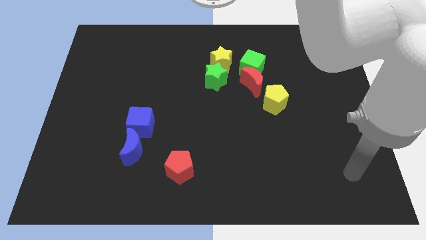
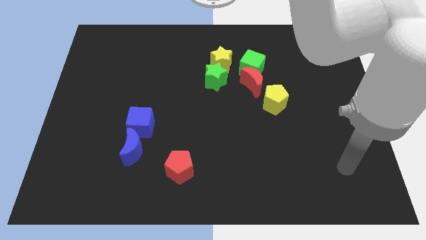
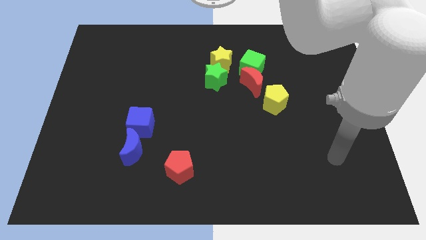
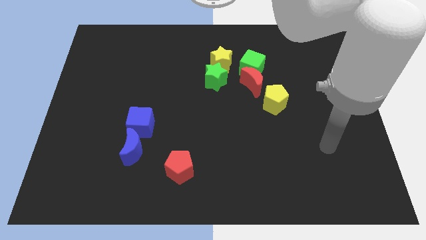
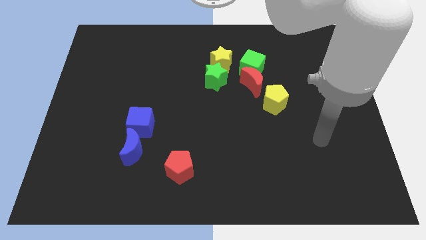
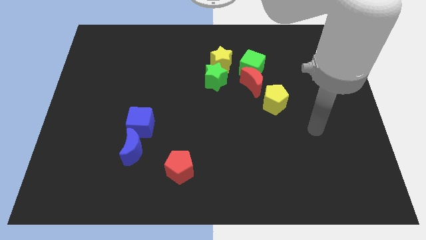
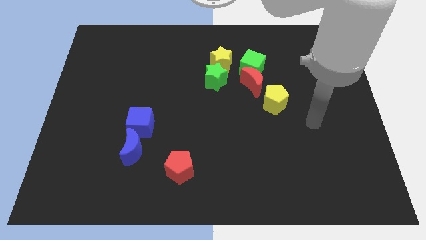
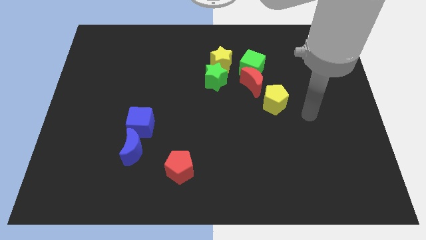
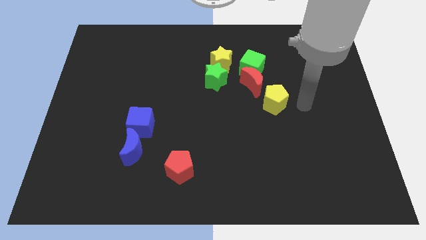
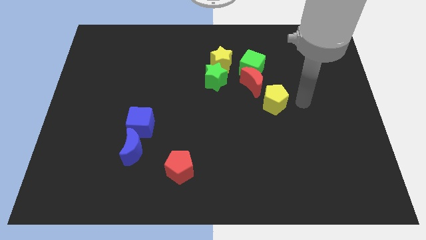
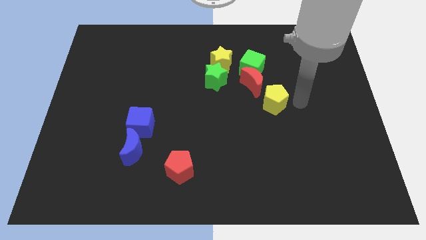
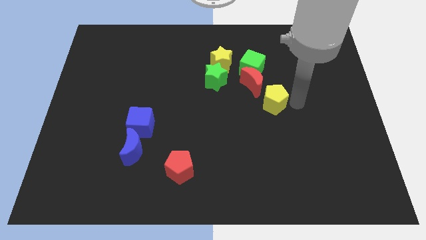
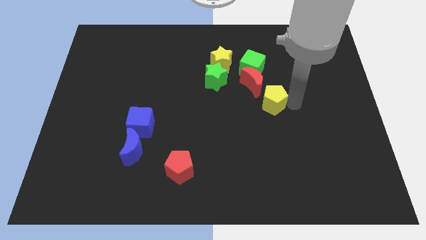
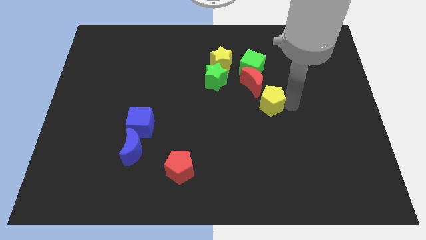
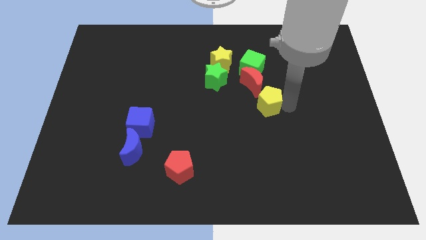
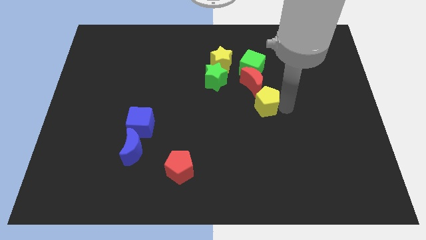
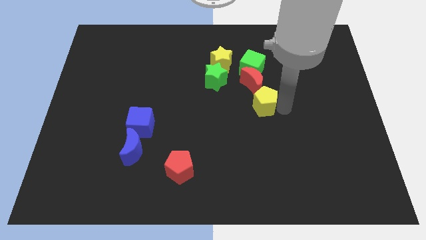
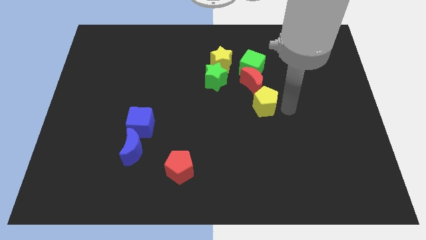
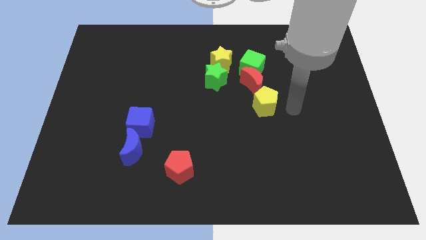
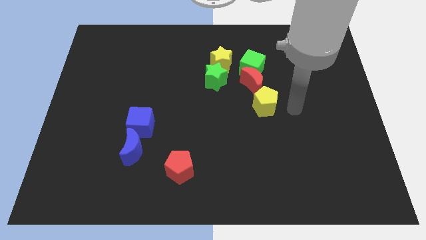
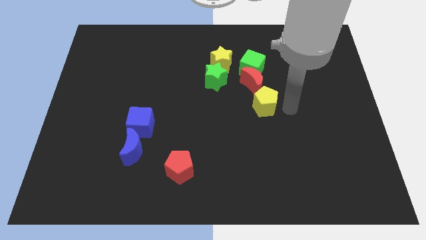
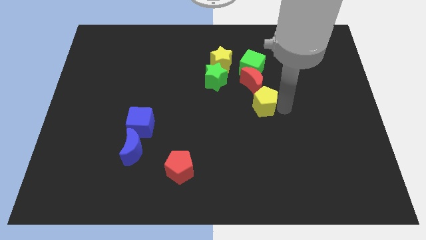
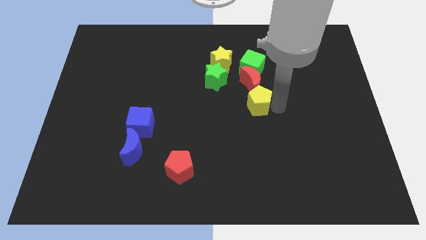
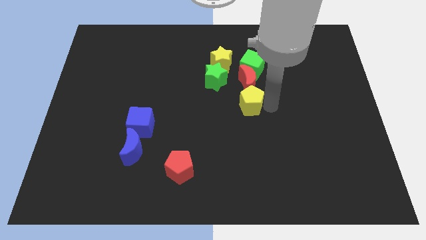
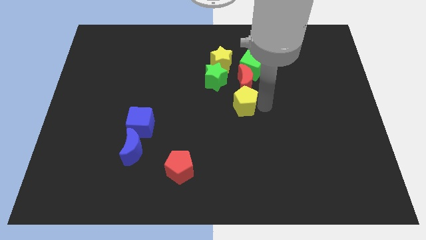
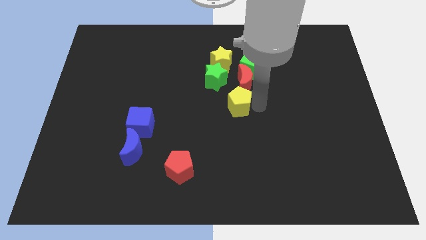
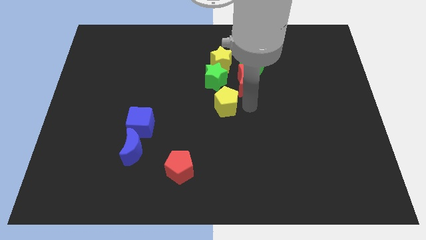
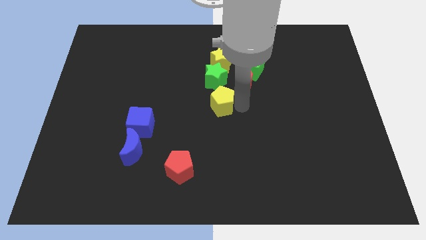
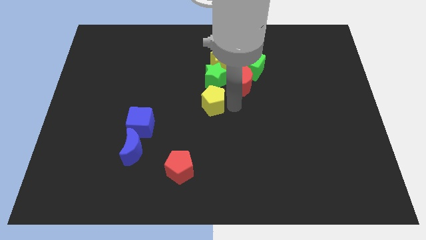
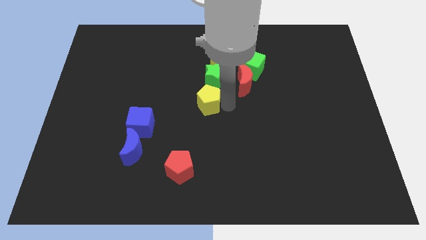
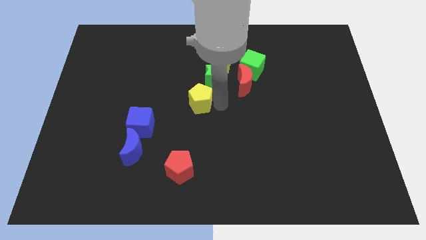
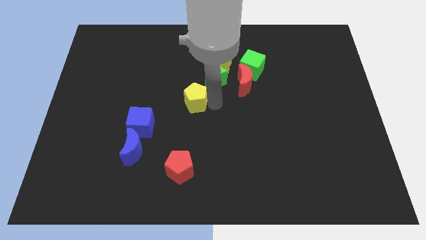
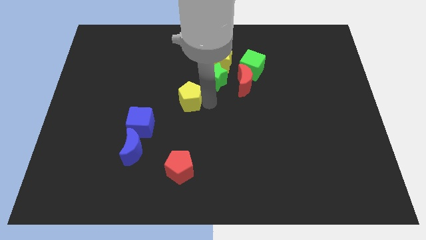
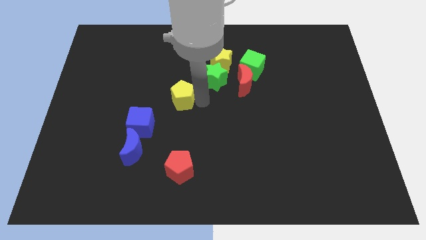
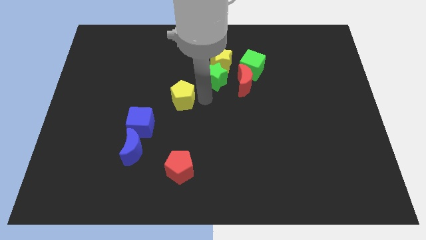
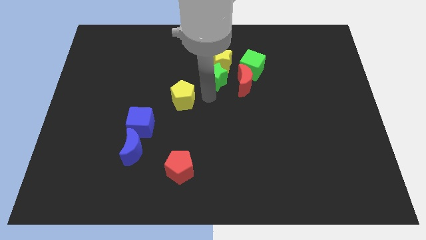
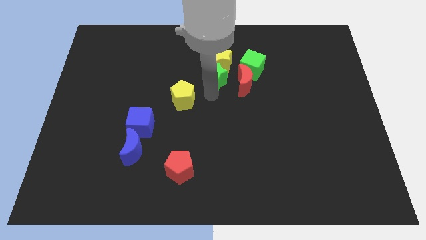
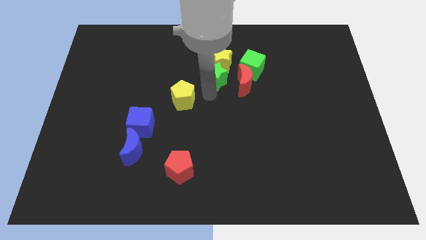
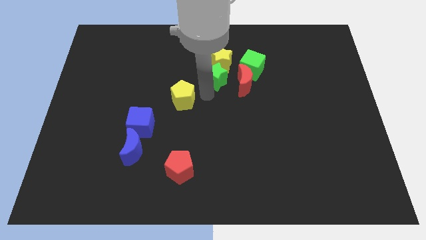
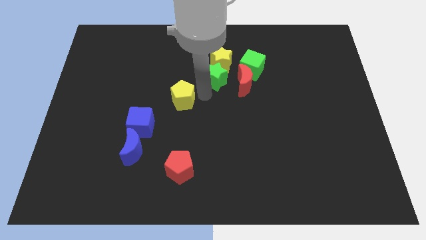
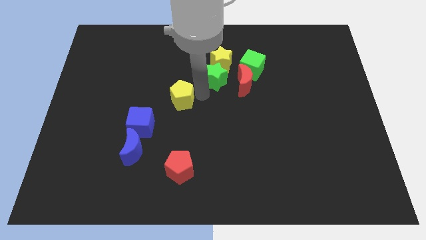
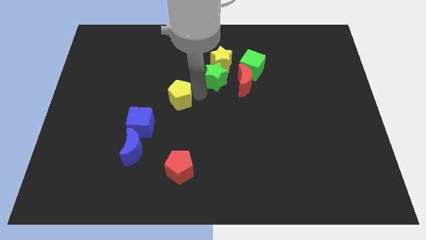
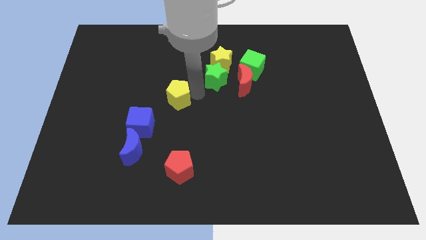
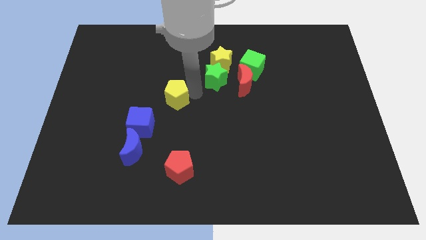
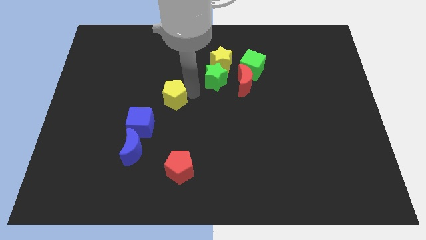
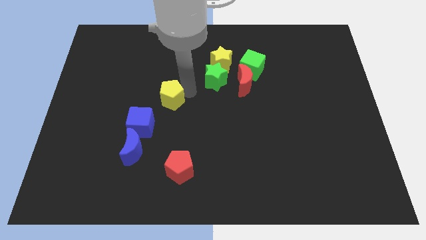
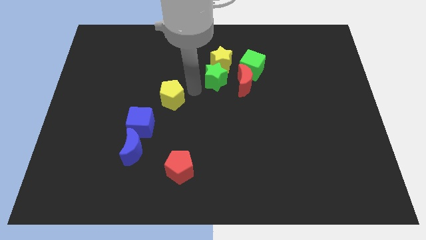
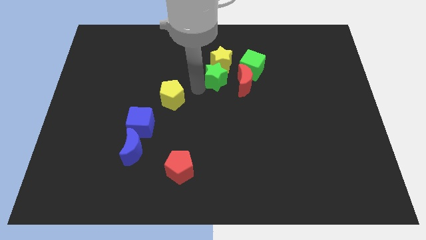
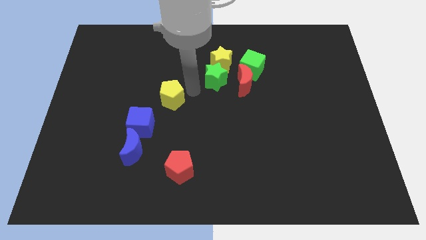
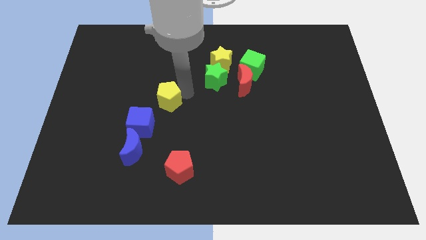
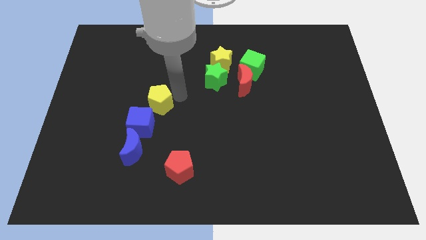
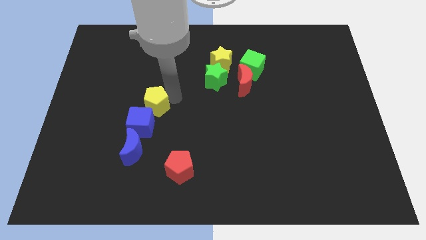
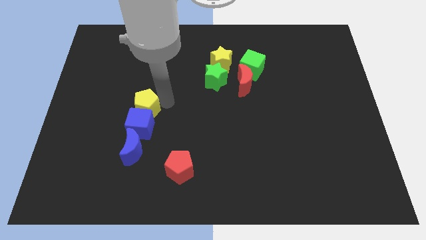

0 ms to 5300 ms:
put the yellow pentagon to the top left of the blue cube

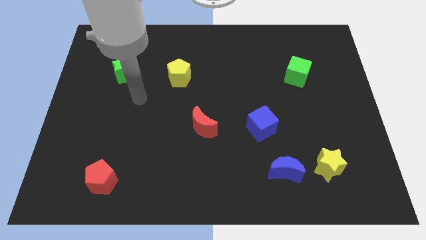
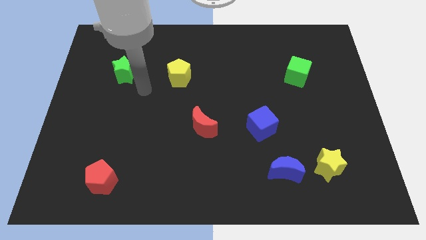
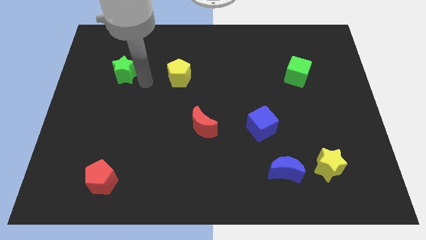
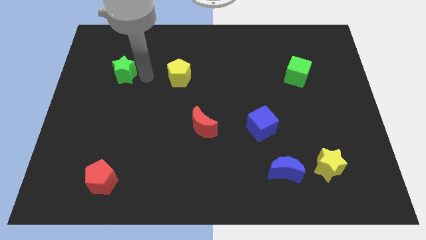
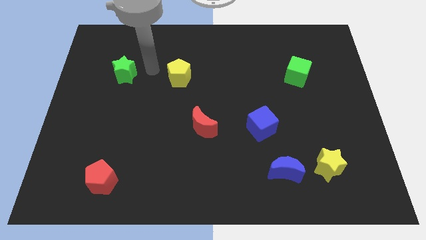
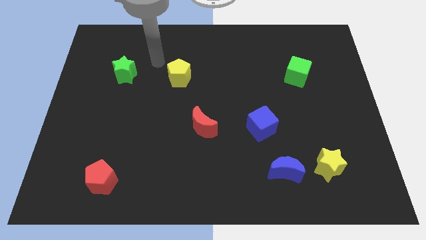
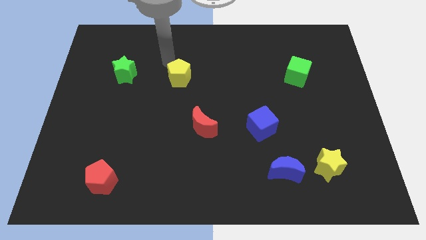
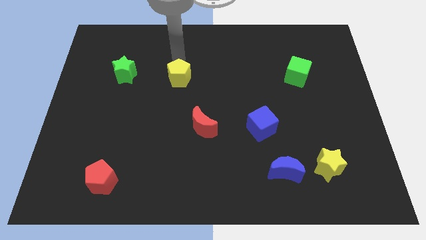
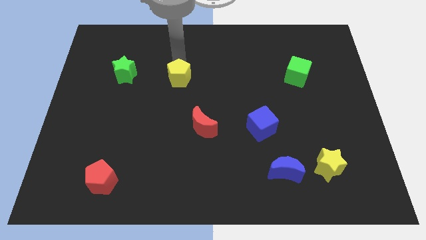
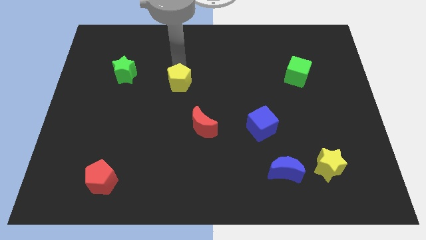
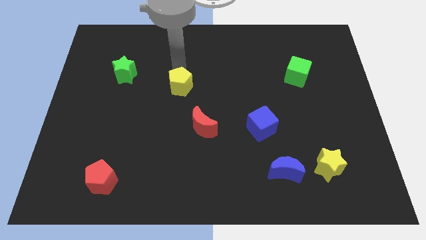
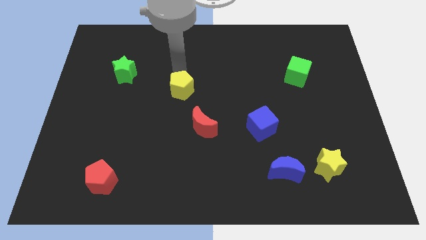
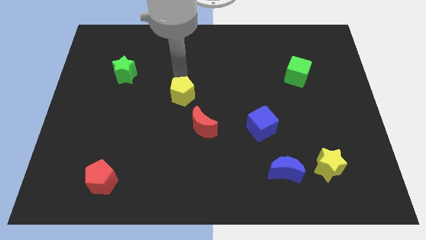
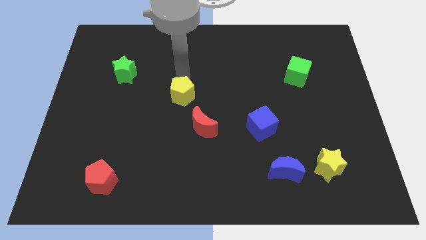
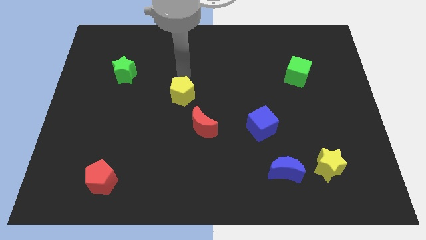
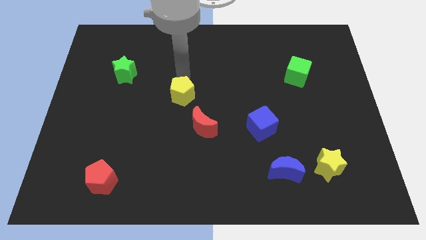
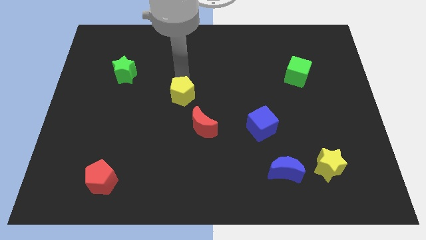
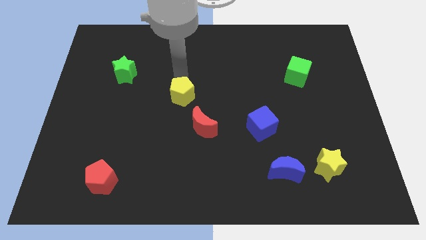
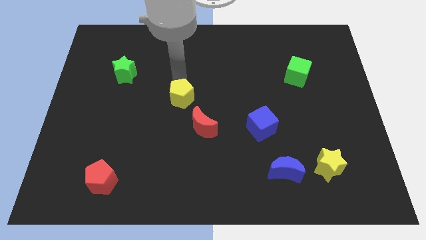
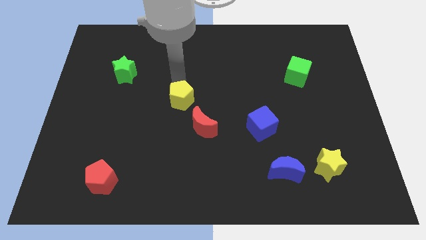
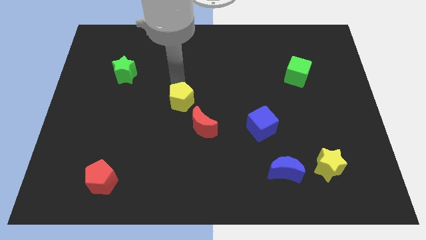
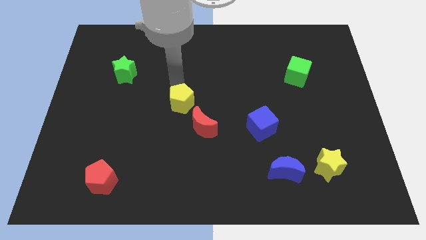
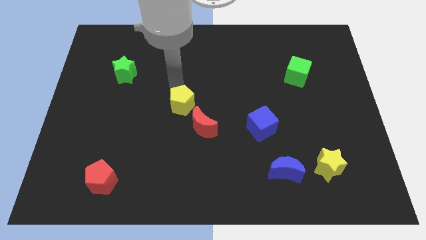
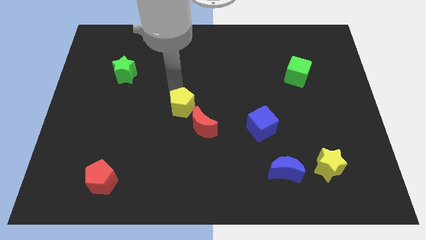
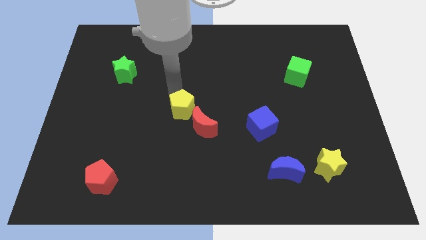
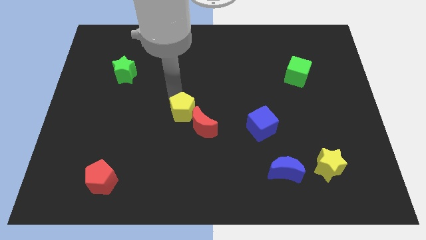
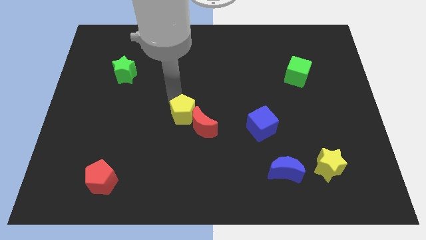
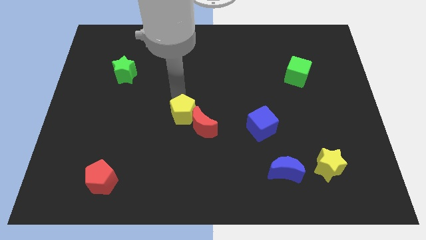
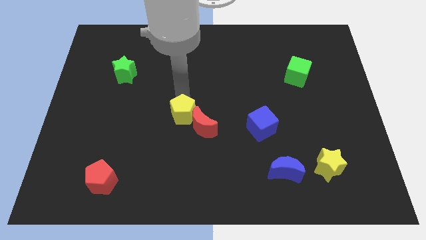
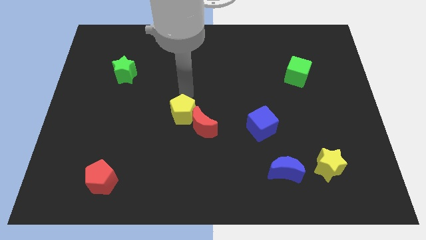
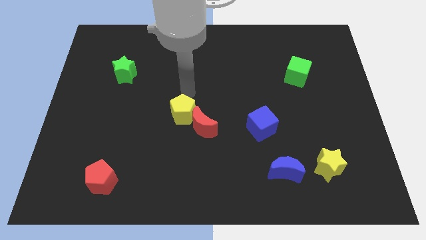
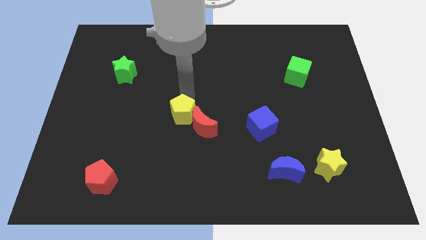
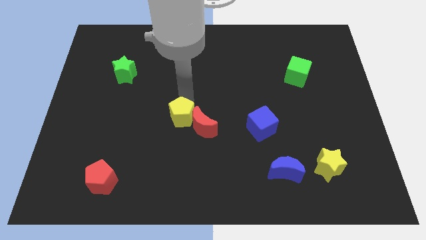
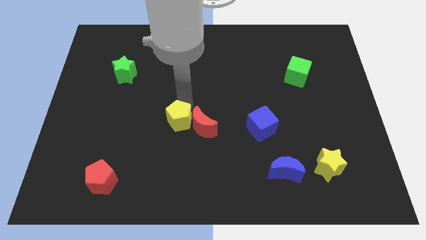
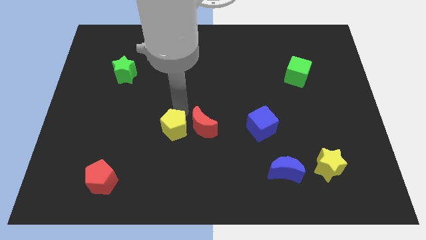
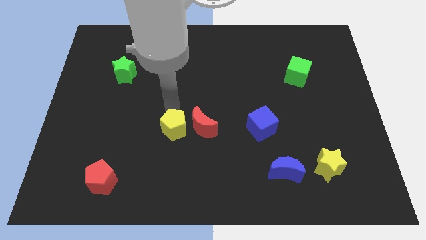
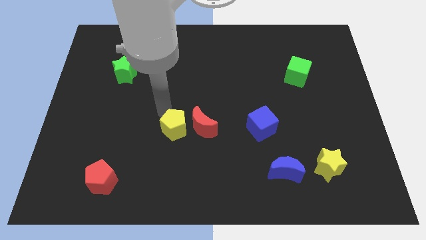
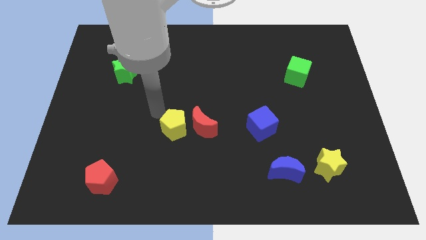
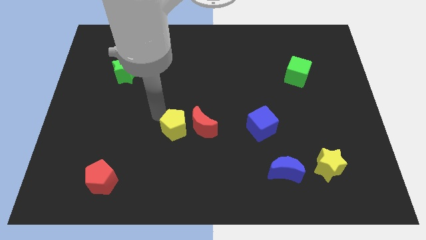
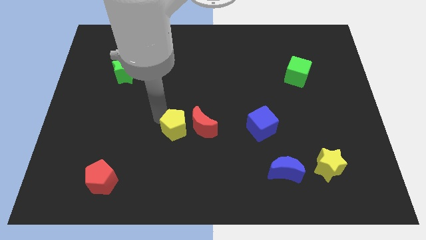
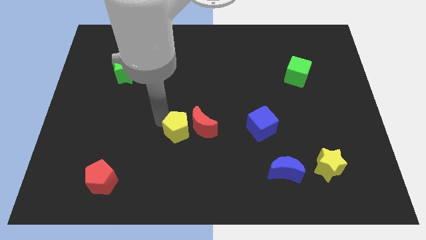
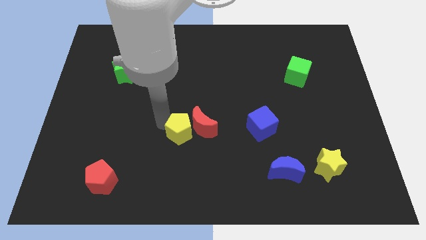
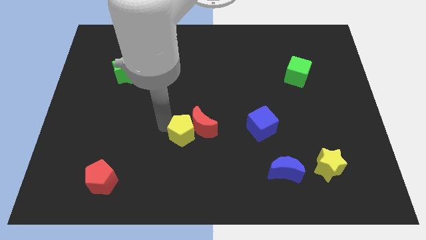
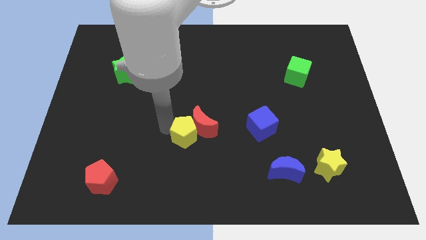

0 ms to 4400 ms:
push the yellow pentagon to the bottom side of the red moon
